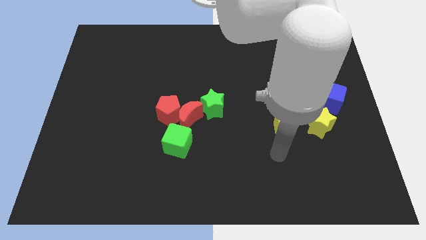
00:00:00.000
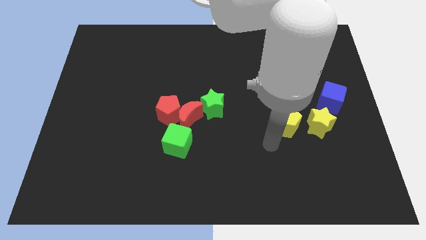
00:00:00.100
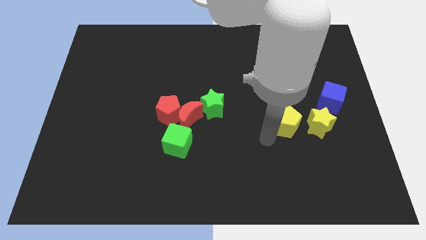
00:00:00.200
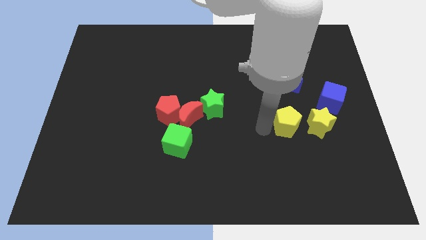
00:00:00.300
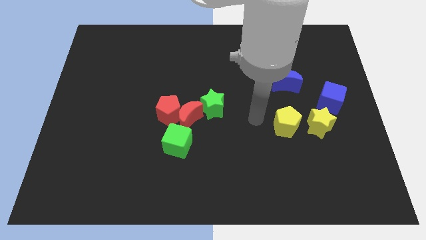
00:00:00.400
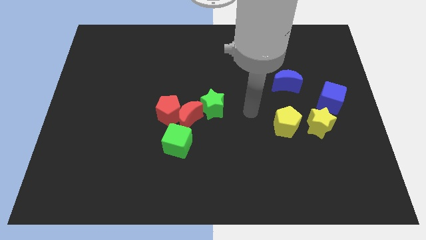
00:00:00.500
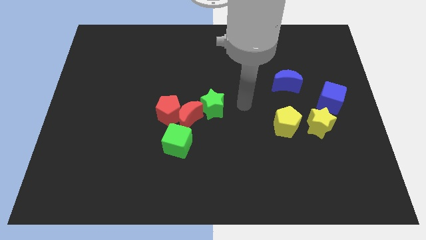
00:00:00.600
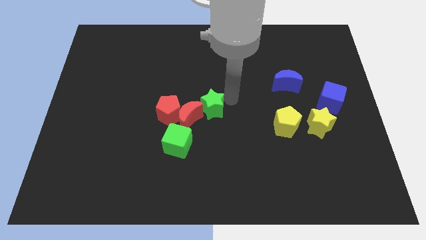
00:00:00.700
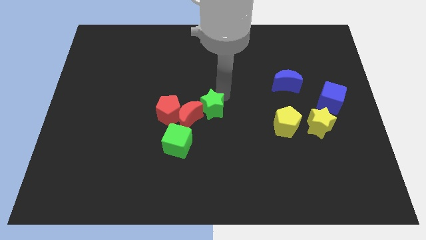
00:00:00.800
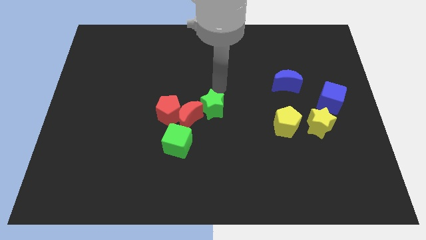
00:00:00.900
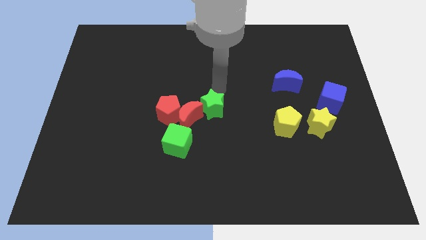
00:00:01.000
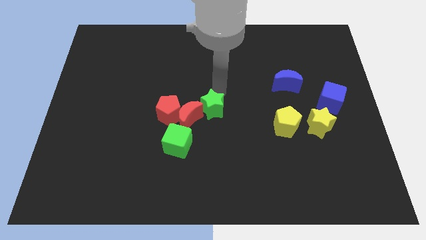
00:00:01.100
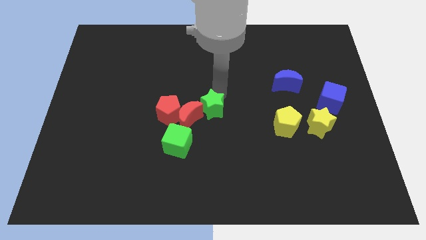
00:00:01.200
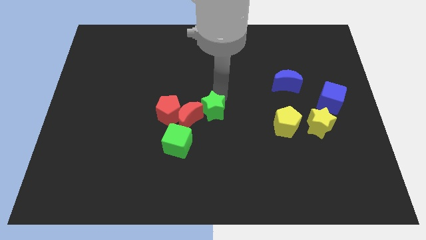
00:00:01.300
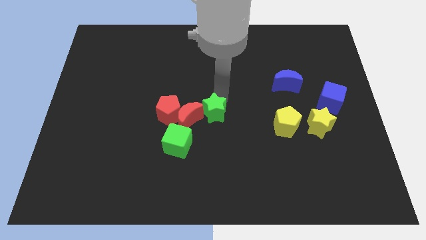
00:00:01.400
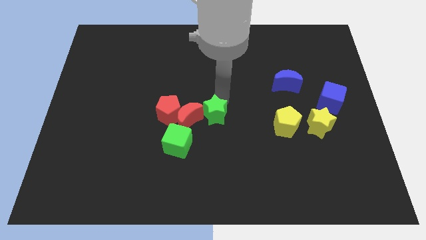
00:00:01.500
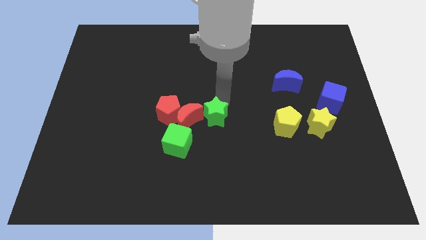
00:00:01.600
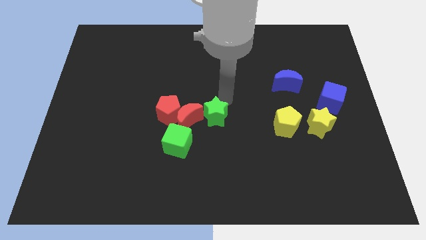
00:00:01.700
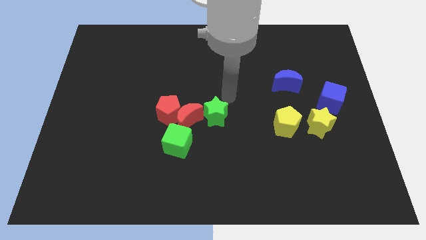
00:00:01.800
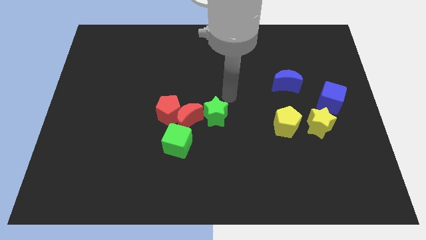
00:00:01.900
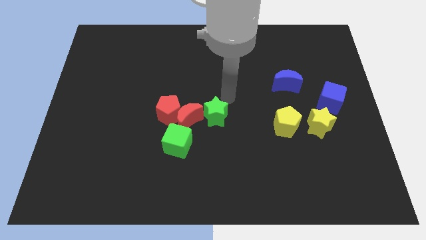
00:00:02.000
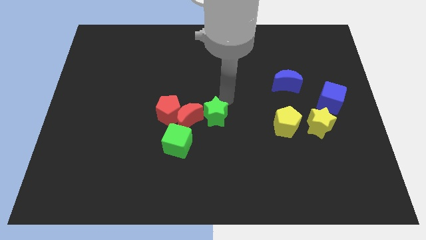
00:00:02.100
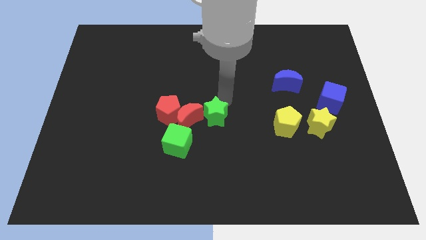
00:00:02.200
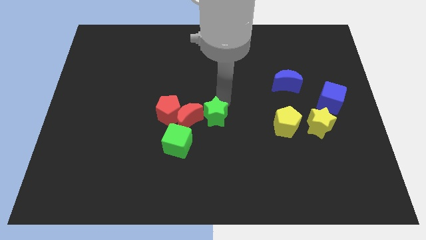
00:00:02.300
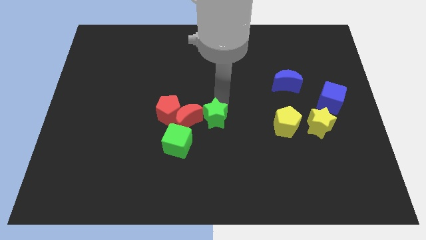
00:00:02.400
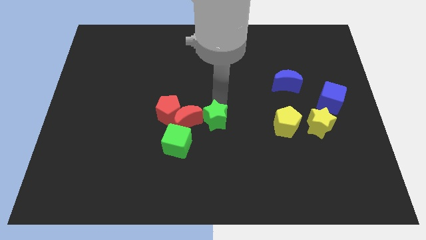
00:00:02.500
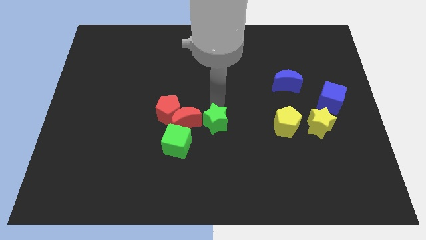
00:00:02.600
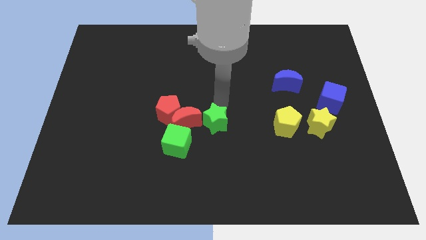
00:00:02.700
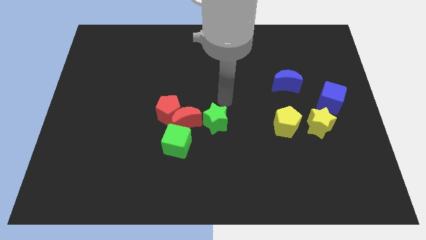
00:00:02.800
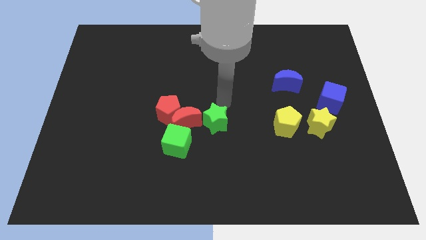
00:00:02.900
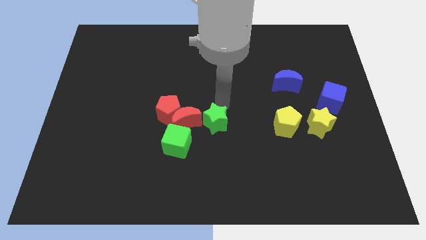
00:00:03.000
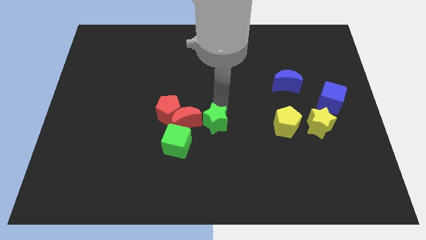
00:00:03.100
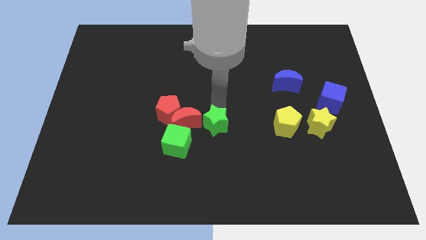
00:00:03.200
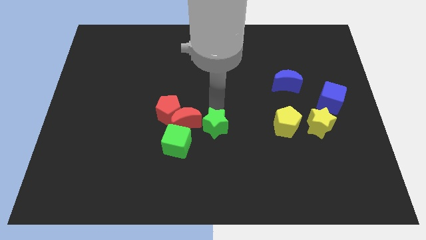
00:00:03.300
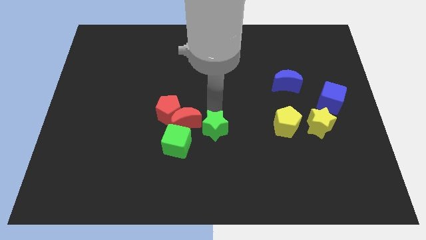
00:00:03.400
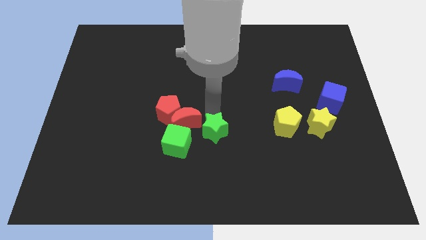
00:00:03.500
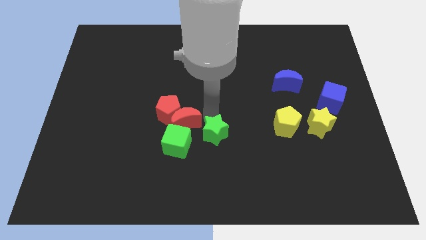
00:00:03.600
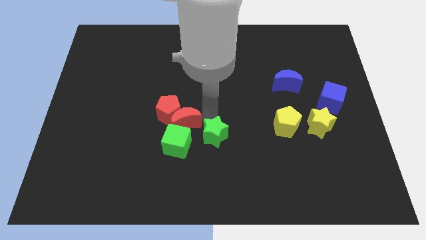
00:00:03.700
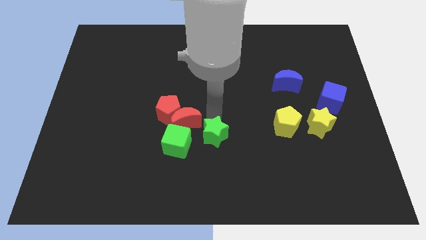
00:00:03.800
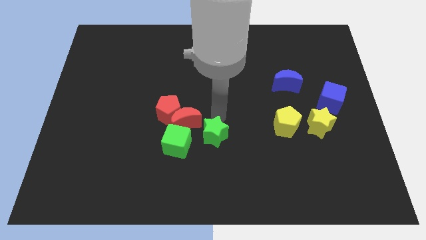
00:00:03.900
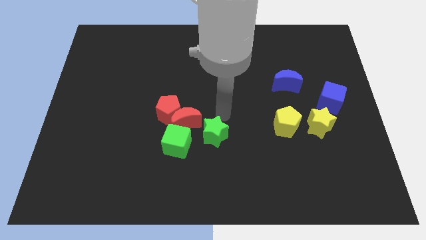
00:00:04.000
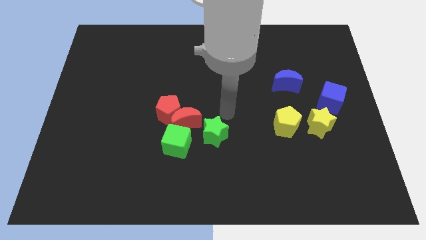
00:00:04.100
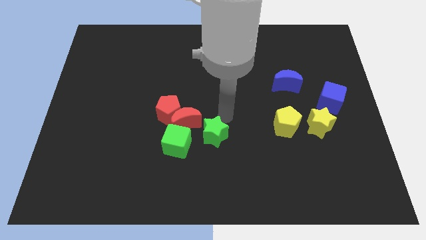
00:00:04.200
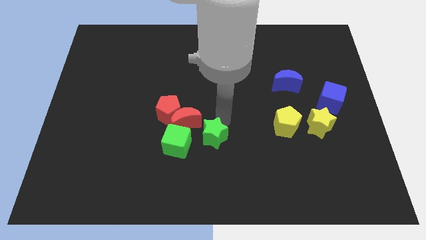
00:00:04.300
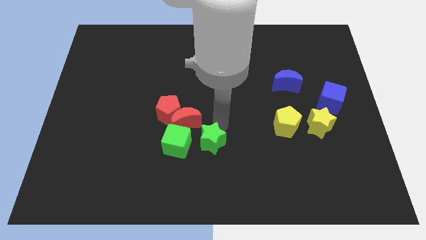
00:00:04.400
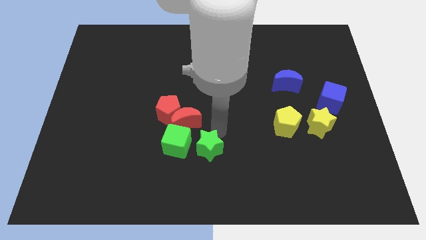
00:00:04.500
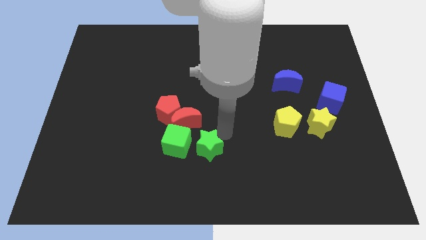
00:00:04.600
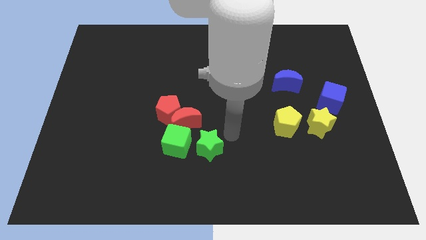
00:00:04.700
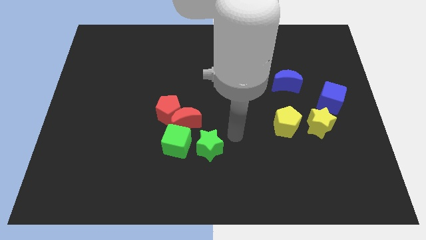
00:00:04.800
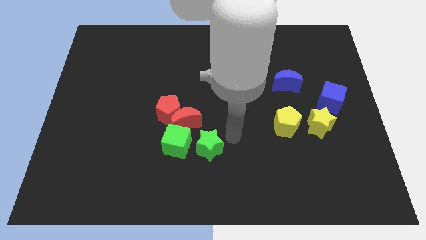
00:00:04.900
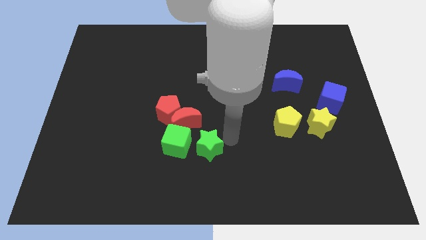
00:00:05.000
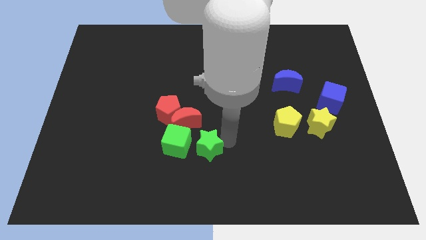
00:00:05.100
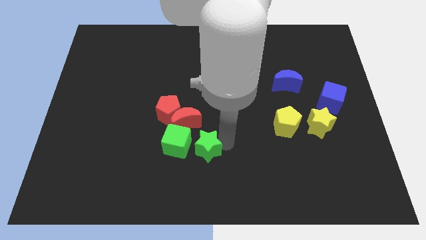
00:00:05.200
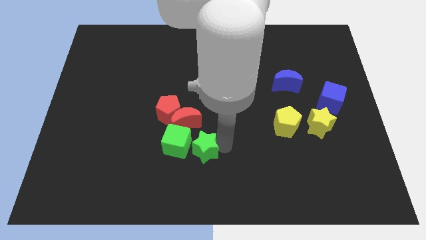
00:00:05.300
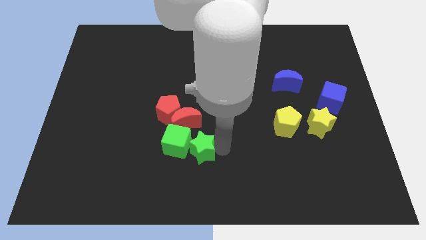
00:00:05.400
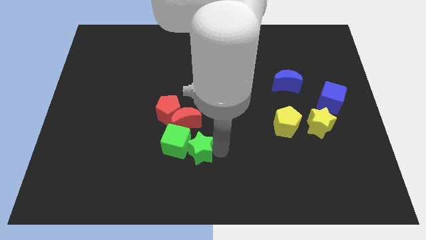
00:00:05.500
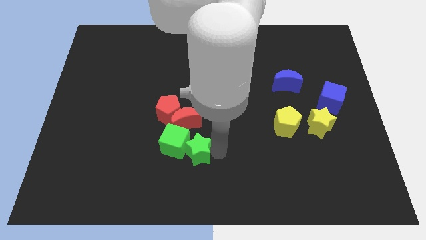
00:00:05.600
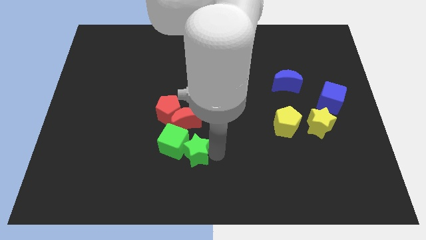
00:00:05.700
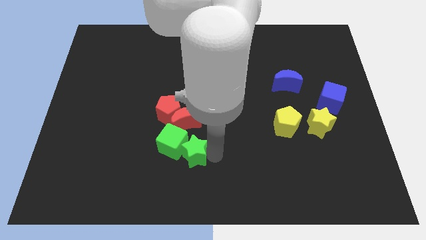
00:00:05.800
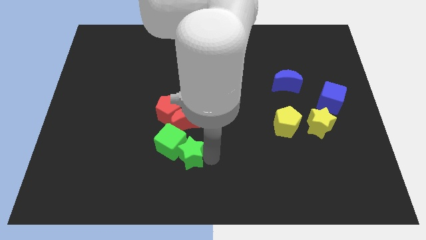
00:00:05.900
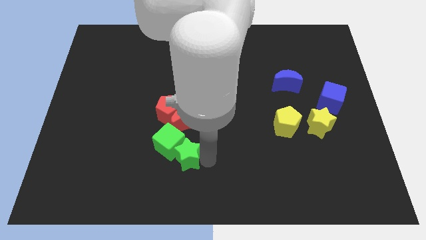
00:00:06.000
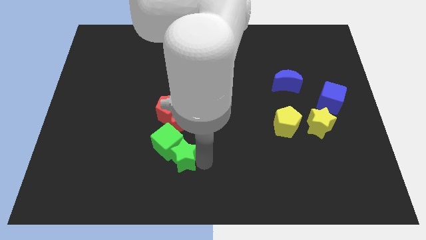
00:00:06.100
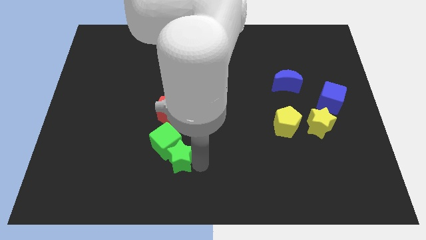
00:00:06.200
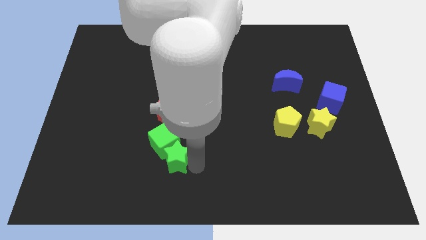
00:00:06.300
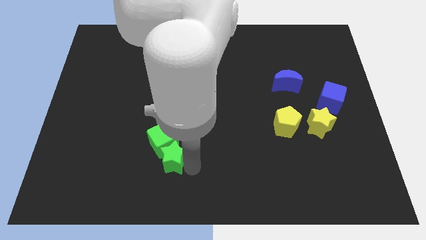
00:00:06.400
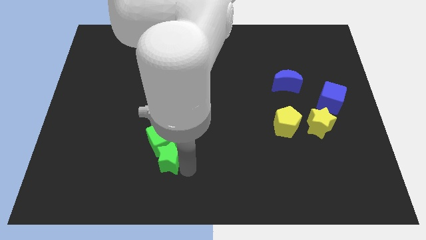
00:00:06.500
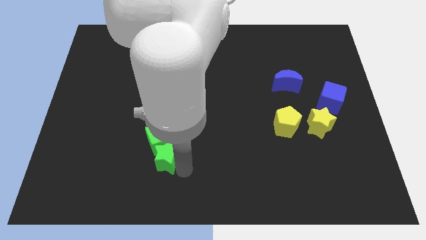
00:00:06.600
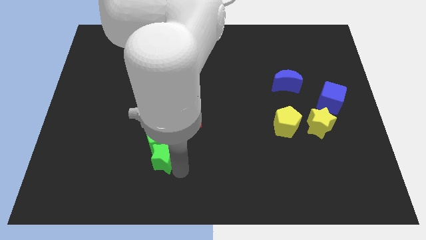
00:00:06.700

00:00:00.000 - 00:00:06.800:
put the green star to the bottom left side of the green cube
